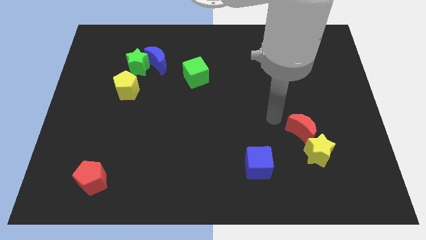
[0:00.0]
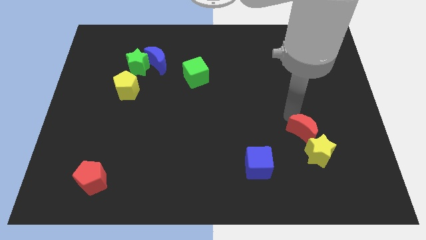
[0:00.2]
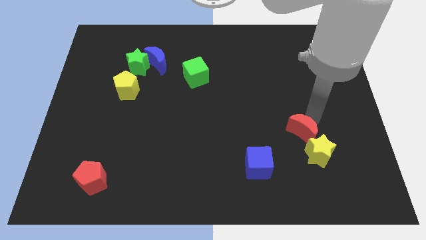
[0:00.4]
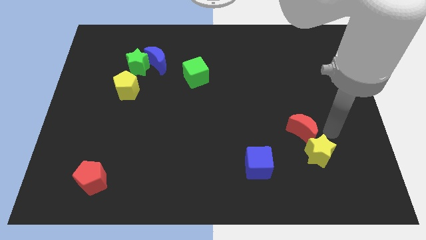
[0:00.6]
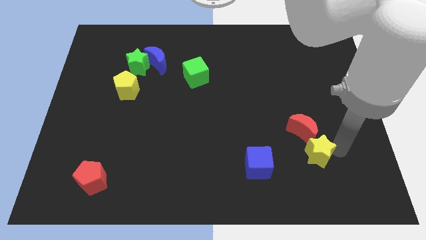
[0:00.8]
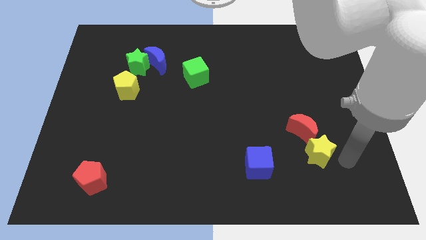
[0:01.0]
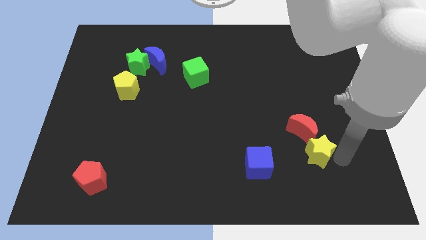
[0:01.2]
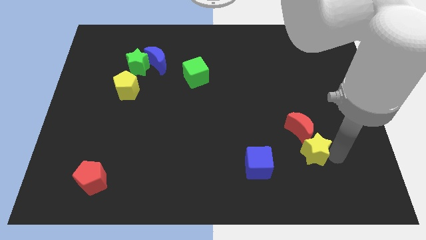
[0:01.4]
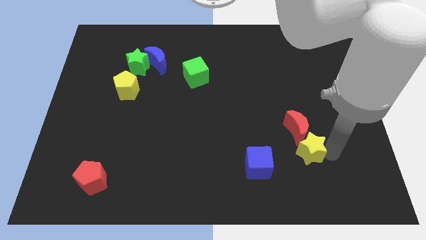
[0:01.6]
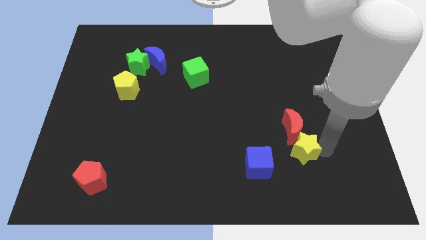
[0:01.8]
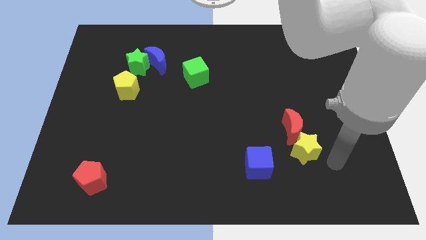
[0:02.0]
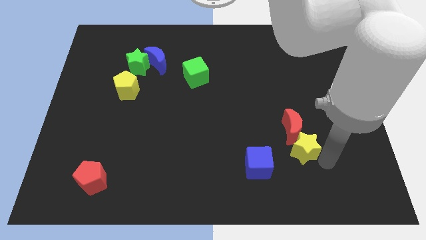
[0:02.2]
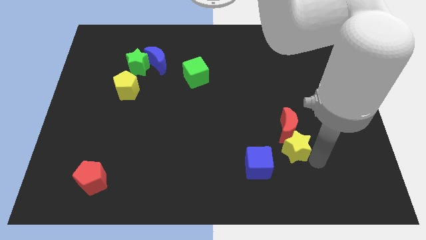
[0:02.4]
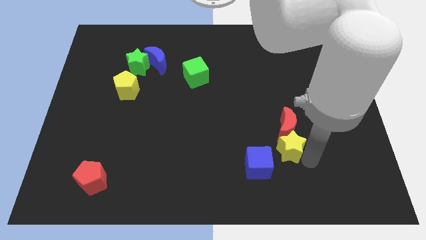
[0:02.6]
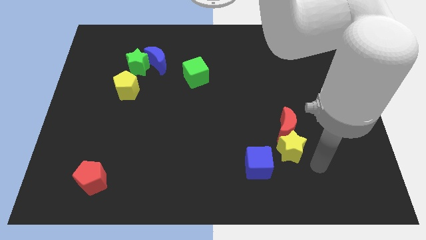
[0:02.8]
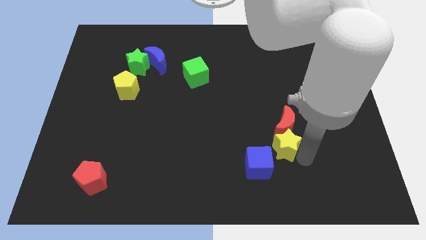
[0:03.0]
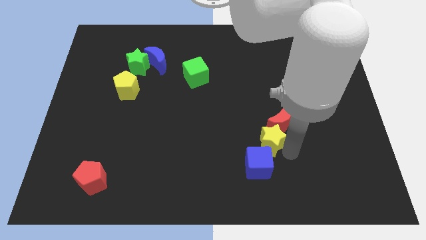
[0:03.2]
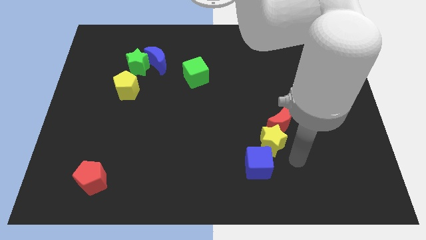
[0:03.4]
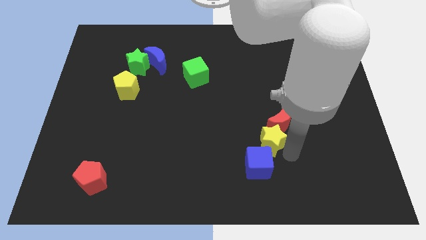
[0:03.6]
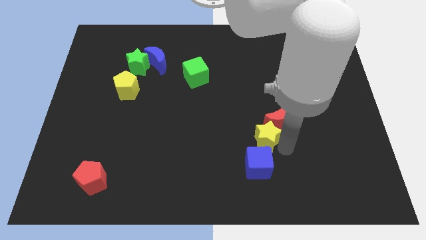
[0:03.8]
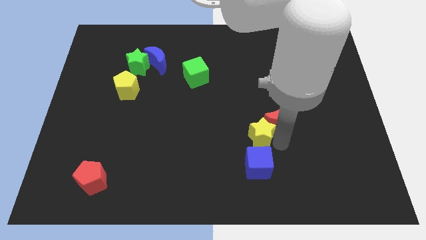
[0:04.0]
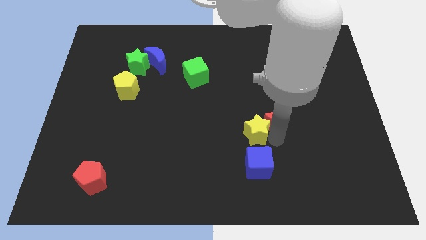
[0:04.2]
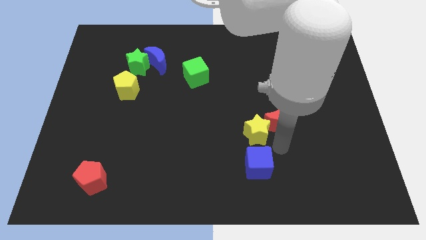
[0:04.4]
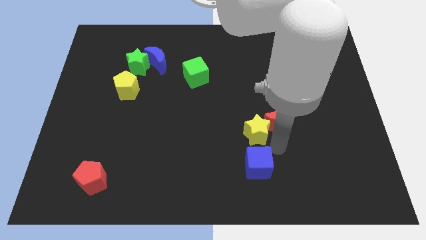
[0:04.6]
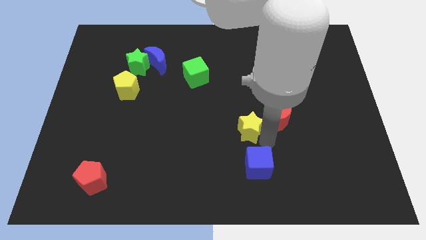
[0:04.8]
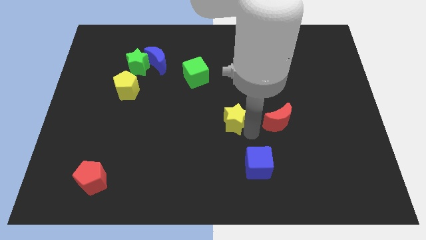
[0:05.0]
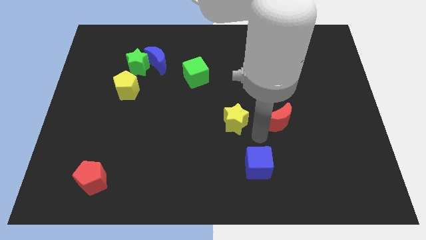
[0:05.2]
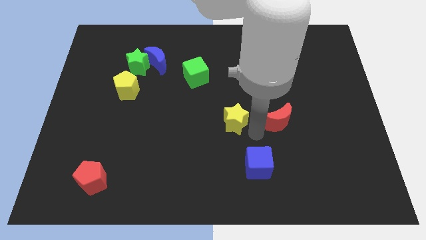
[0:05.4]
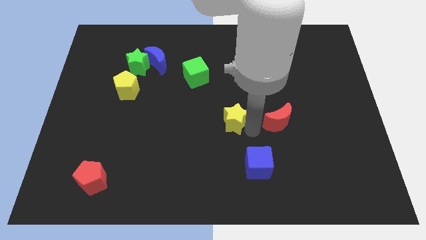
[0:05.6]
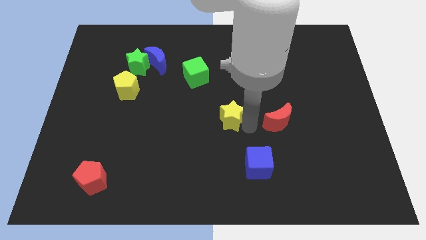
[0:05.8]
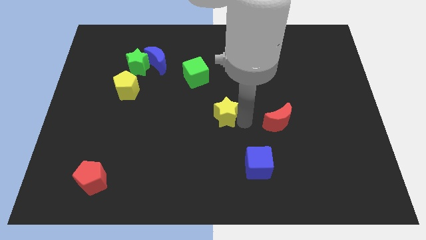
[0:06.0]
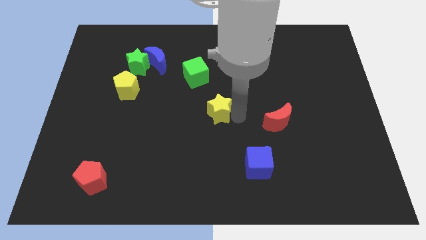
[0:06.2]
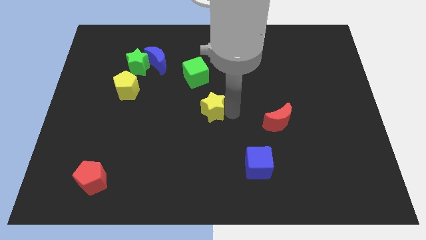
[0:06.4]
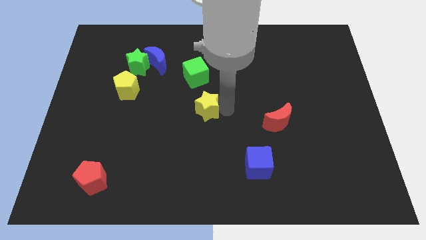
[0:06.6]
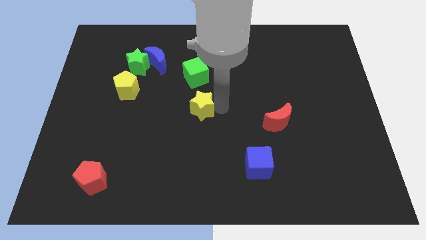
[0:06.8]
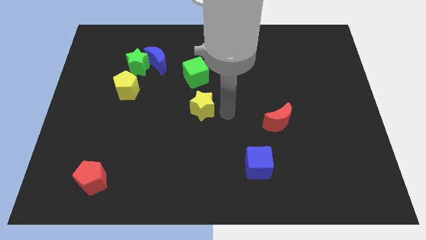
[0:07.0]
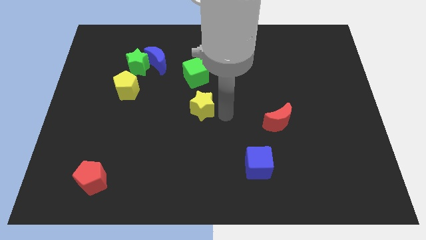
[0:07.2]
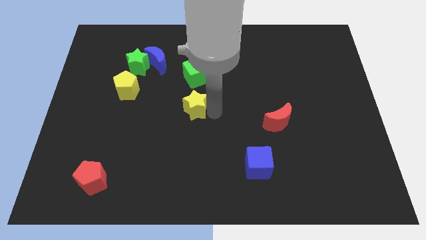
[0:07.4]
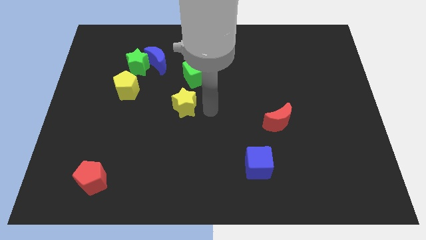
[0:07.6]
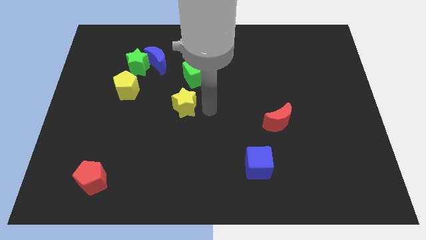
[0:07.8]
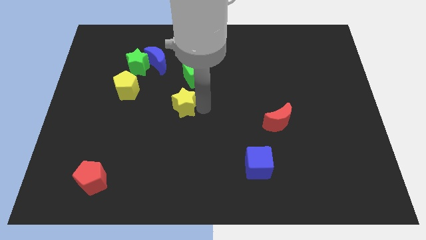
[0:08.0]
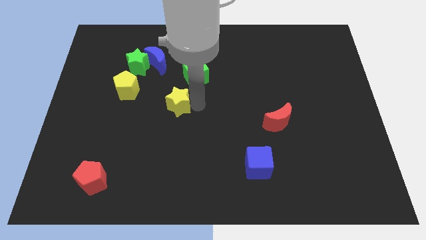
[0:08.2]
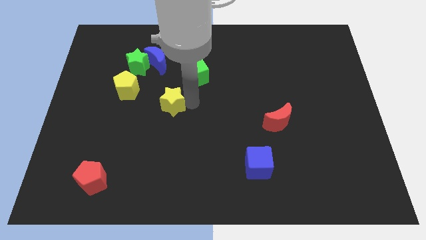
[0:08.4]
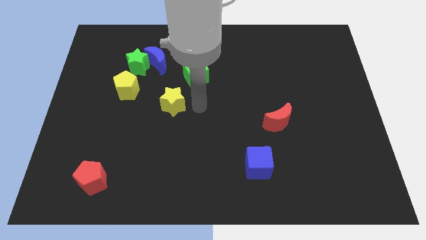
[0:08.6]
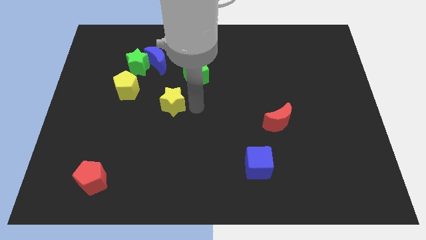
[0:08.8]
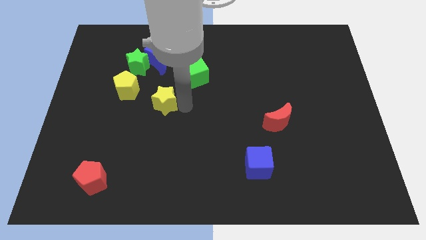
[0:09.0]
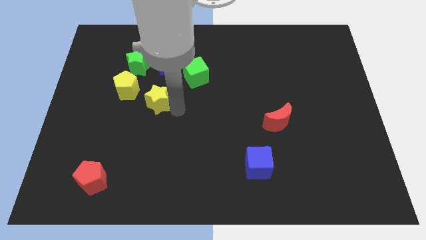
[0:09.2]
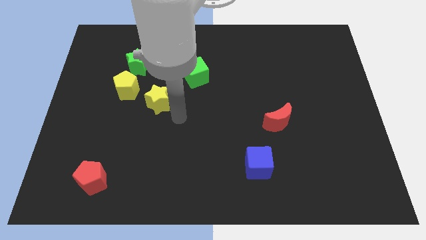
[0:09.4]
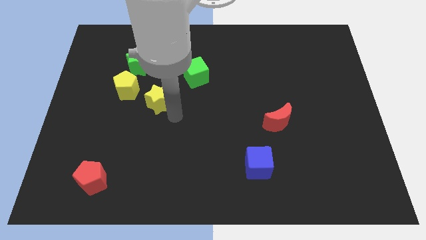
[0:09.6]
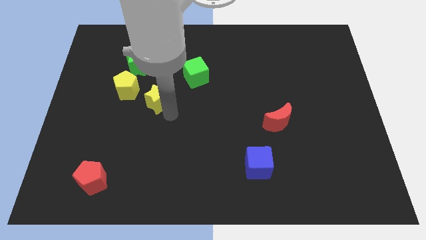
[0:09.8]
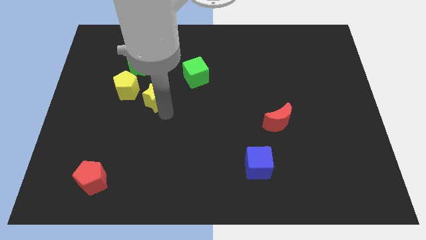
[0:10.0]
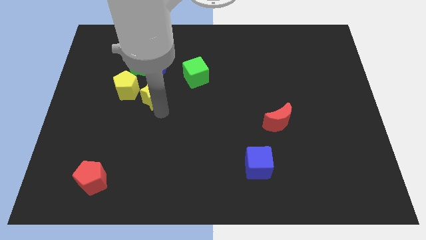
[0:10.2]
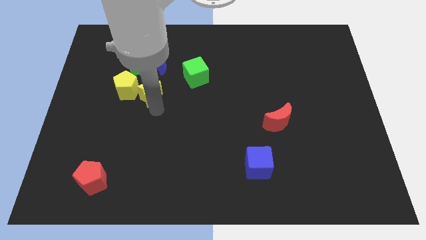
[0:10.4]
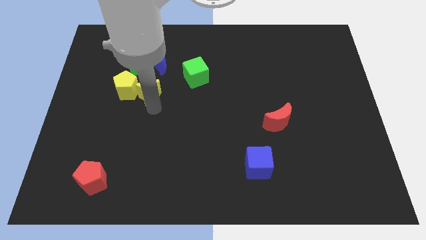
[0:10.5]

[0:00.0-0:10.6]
slide the yellow star to the yellow pentagon

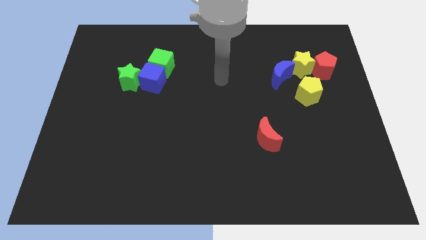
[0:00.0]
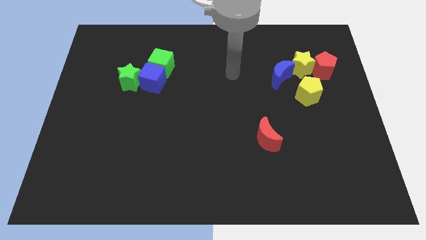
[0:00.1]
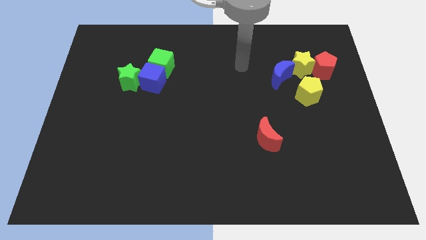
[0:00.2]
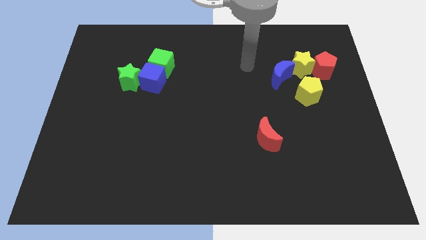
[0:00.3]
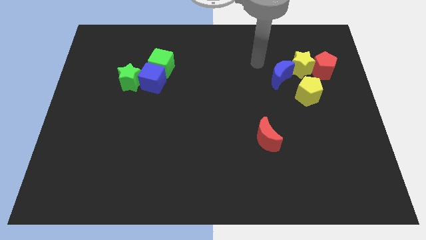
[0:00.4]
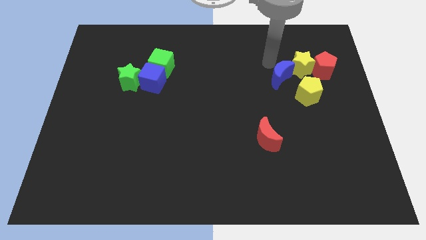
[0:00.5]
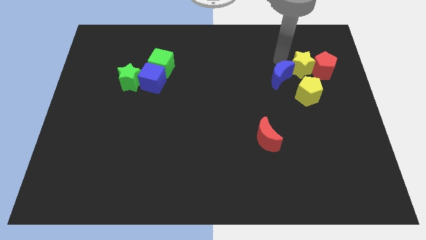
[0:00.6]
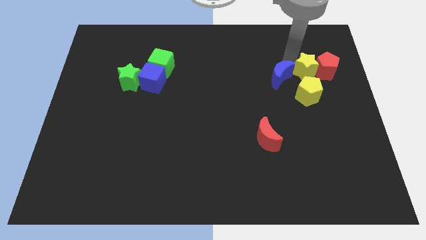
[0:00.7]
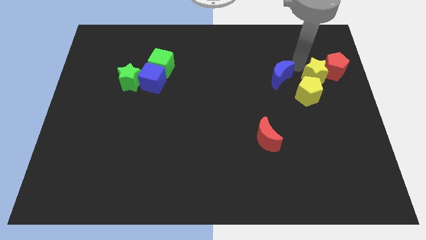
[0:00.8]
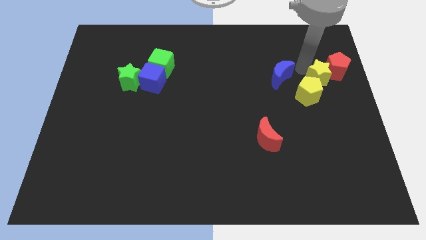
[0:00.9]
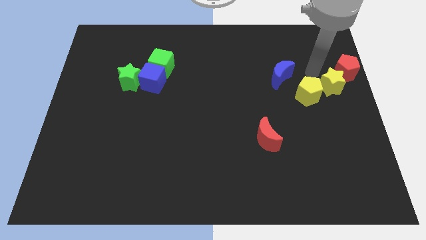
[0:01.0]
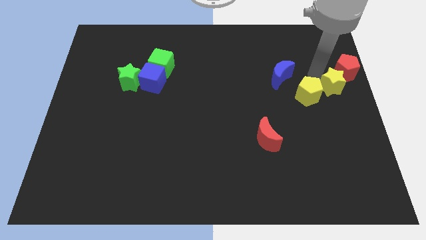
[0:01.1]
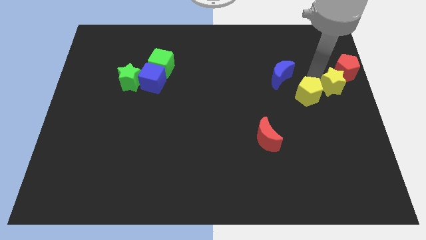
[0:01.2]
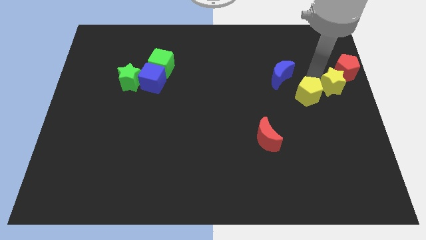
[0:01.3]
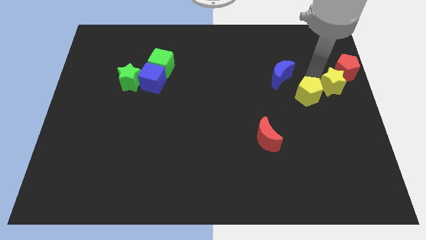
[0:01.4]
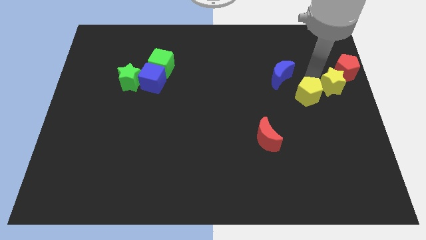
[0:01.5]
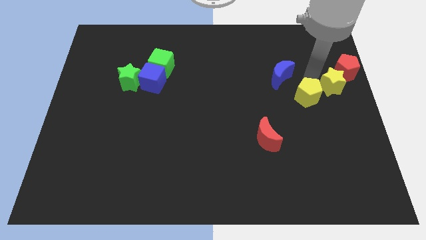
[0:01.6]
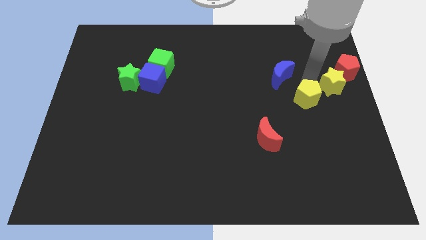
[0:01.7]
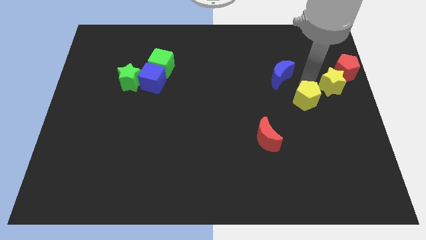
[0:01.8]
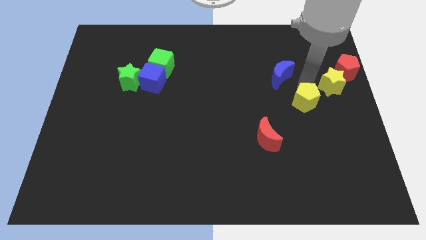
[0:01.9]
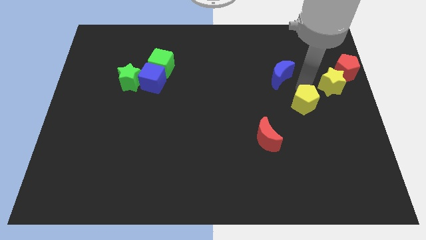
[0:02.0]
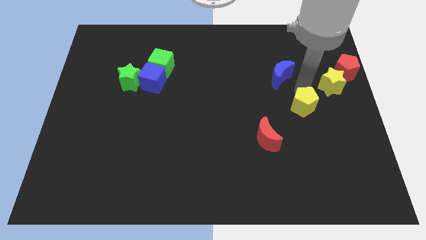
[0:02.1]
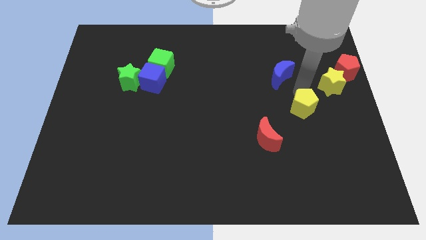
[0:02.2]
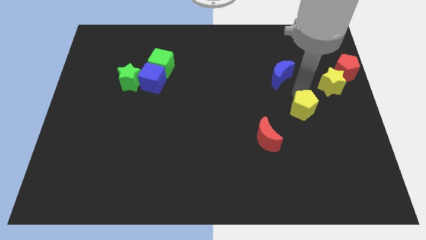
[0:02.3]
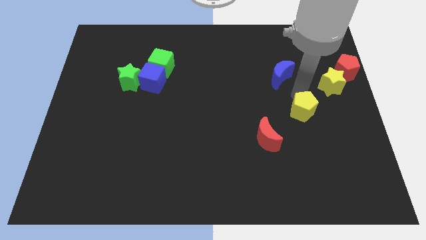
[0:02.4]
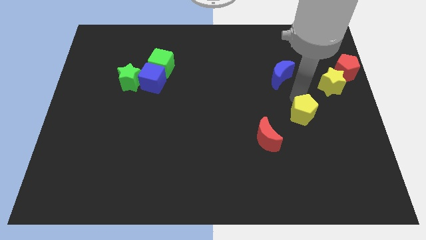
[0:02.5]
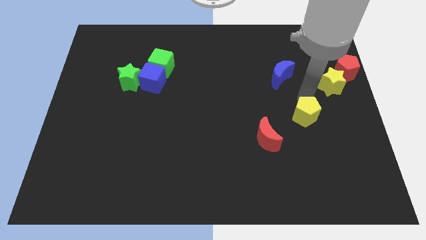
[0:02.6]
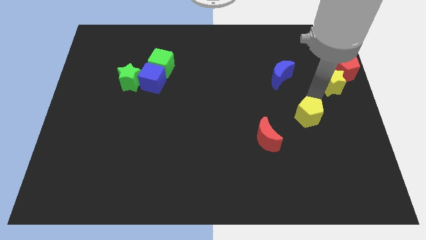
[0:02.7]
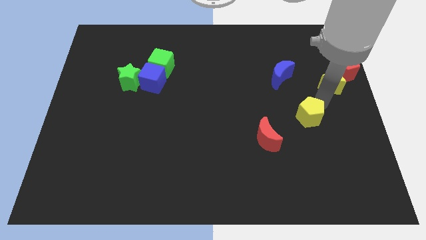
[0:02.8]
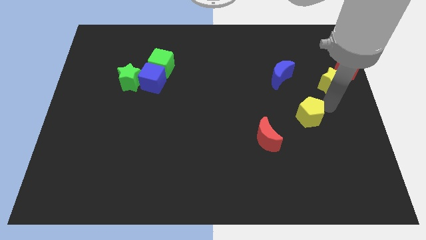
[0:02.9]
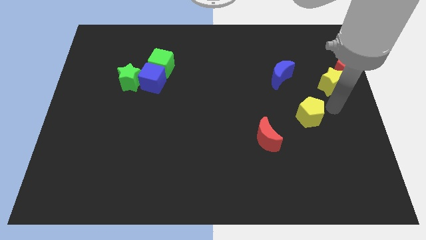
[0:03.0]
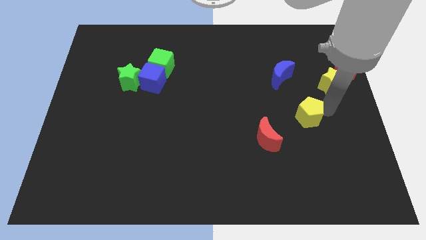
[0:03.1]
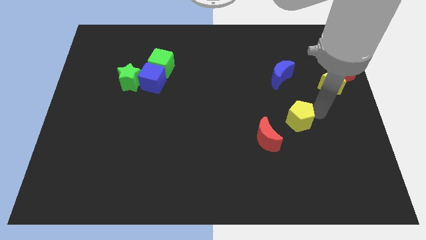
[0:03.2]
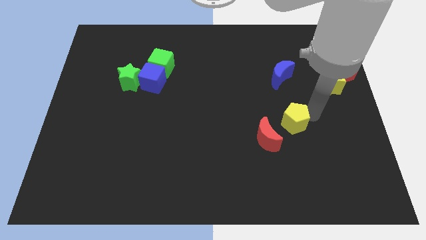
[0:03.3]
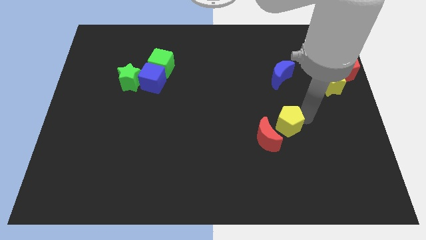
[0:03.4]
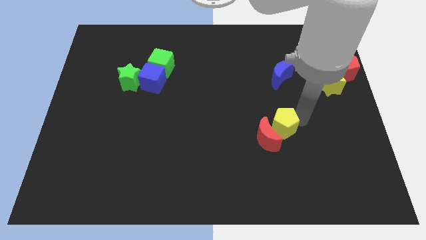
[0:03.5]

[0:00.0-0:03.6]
slide the yellow pentagon next to the red moon
